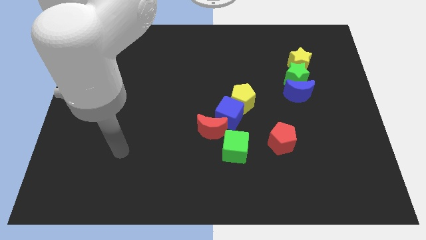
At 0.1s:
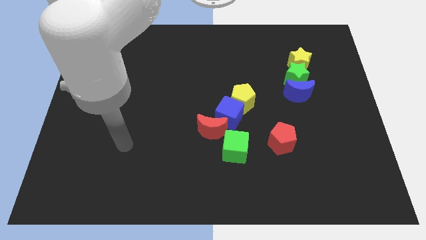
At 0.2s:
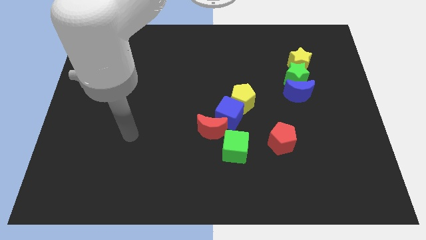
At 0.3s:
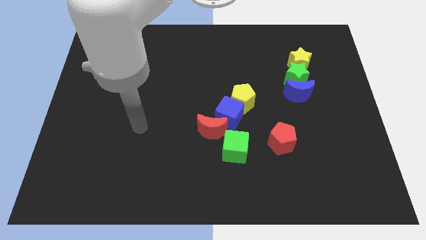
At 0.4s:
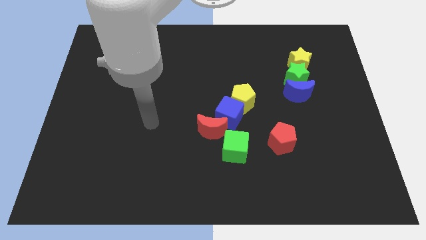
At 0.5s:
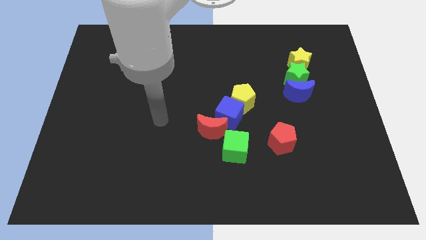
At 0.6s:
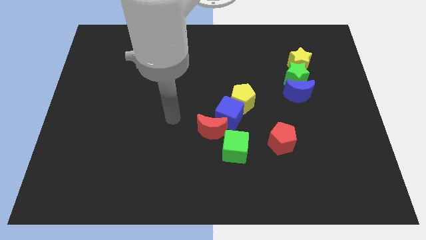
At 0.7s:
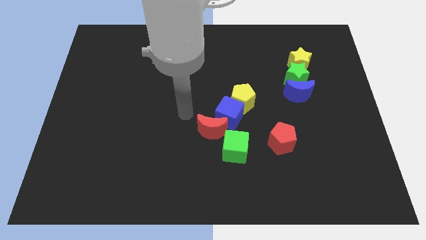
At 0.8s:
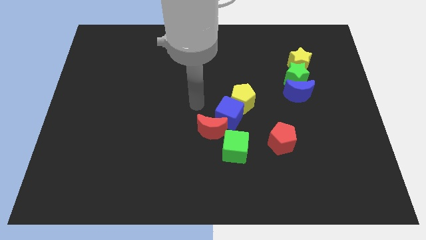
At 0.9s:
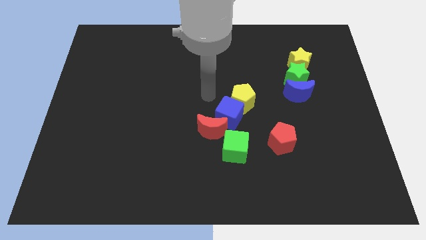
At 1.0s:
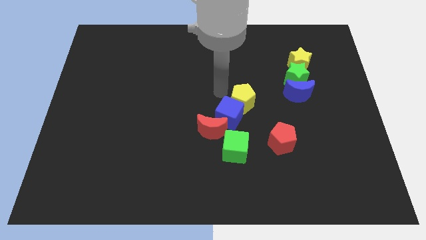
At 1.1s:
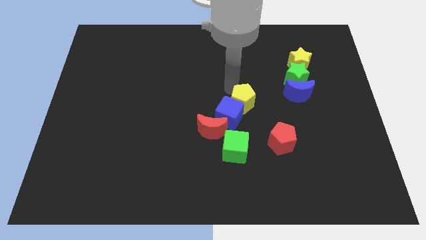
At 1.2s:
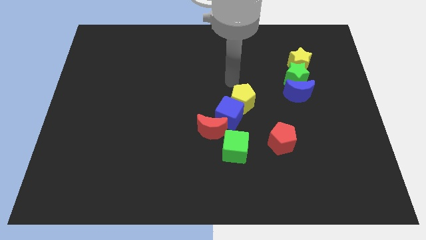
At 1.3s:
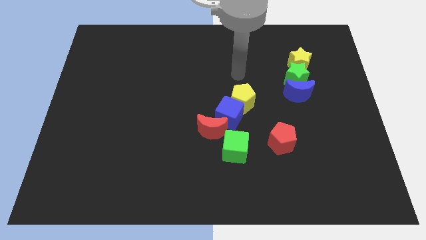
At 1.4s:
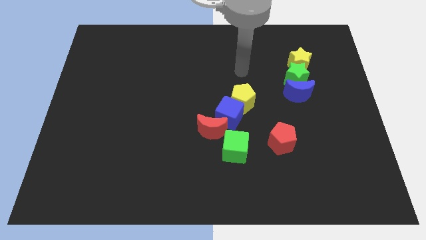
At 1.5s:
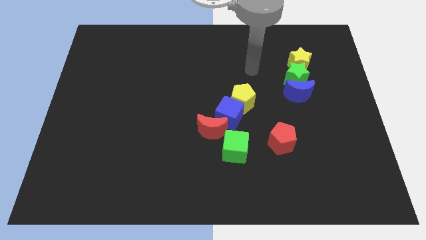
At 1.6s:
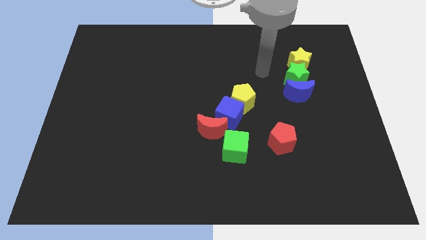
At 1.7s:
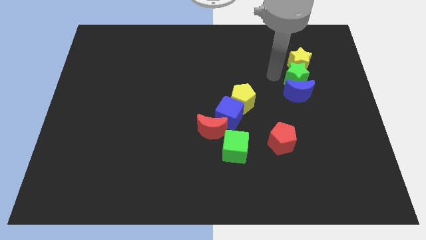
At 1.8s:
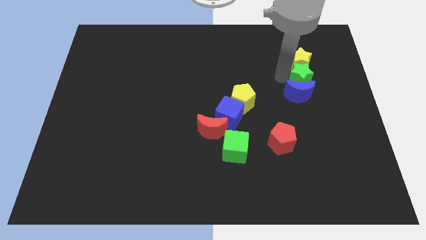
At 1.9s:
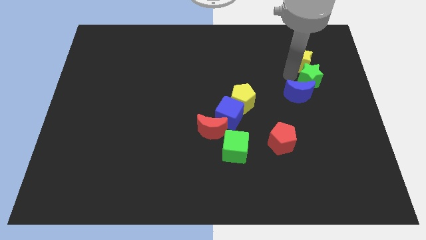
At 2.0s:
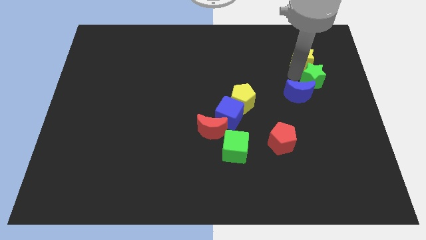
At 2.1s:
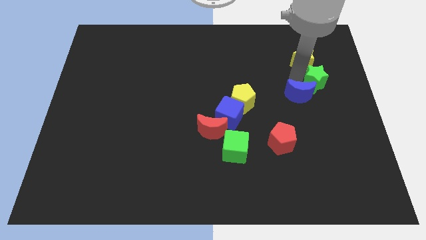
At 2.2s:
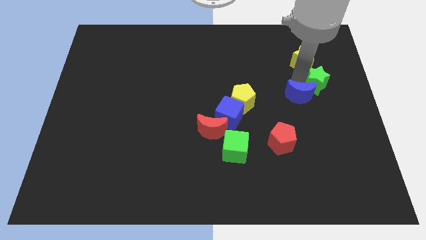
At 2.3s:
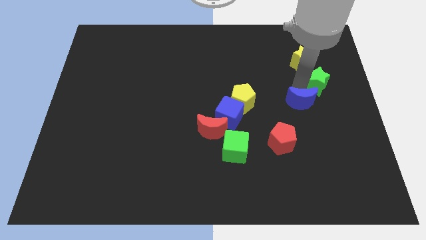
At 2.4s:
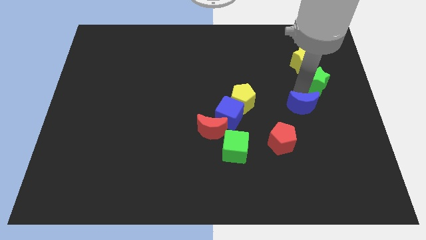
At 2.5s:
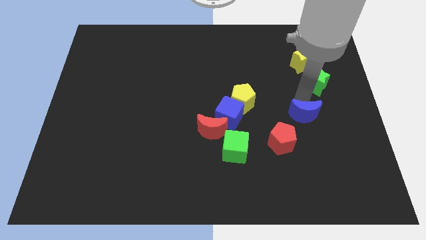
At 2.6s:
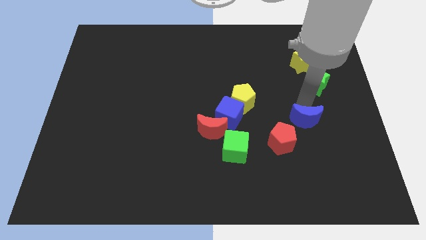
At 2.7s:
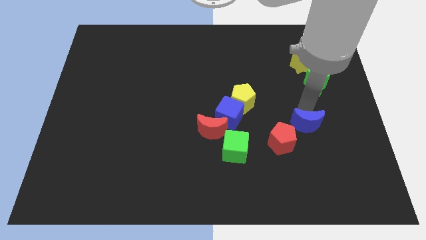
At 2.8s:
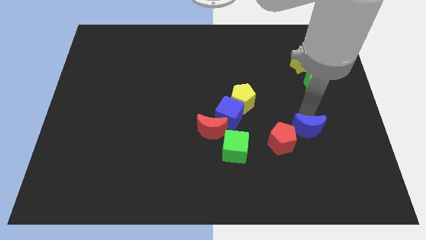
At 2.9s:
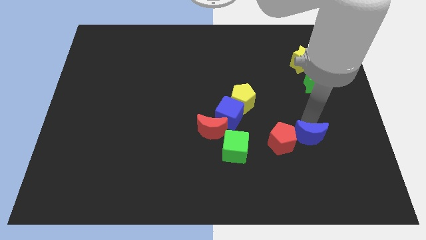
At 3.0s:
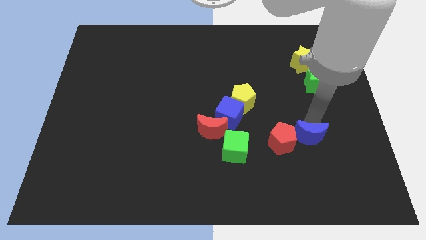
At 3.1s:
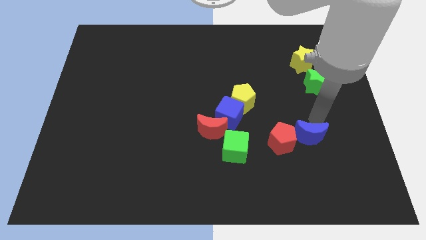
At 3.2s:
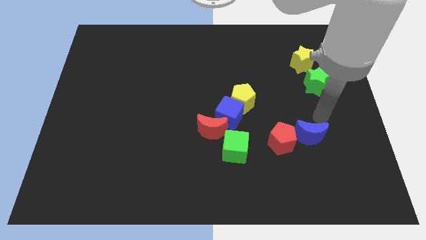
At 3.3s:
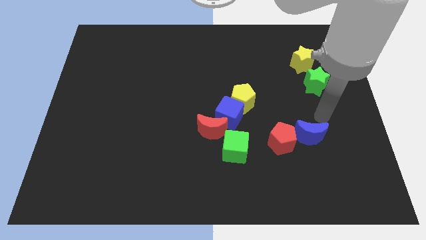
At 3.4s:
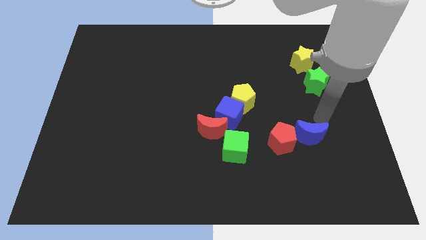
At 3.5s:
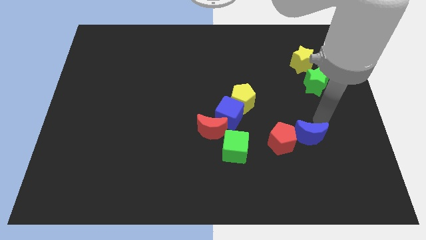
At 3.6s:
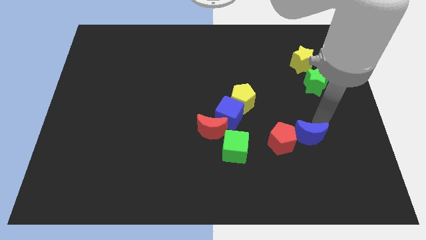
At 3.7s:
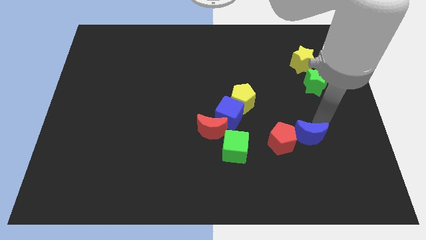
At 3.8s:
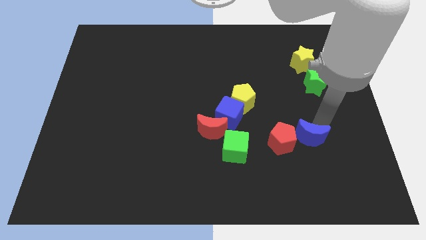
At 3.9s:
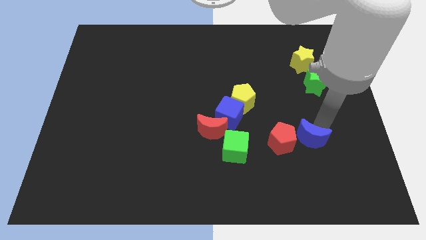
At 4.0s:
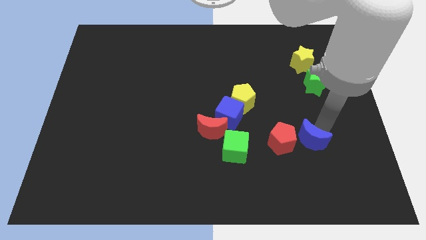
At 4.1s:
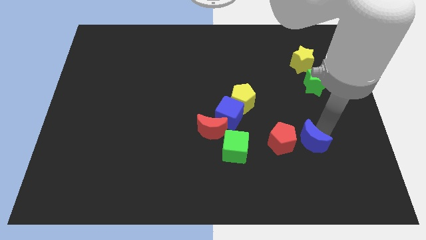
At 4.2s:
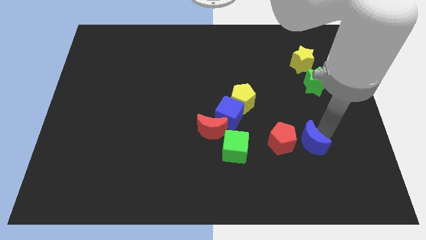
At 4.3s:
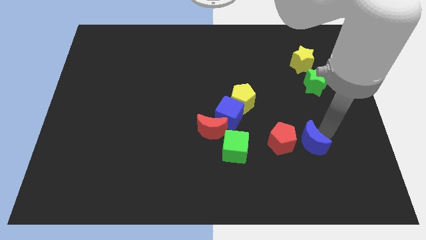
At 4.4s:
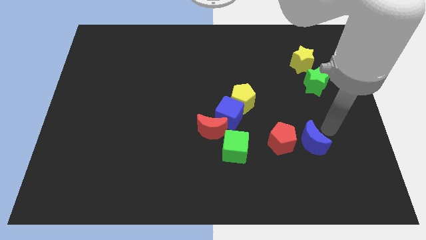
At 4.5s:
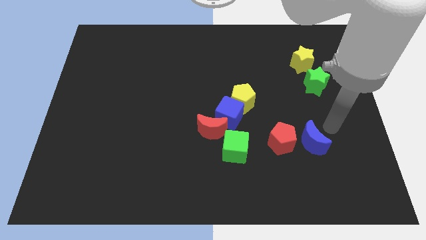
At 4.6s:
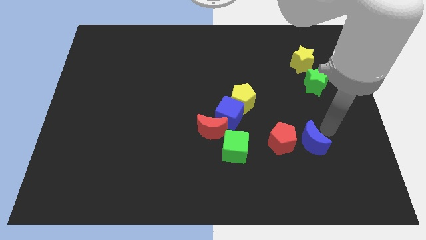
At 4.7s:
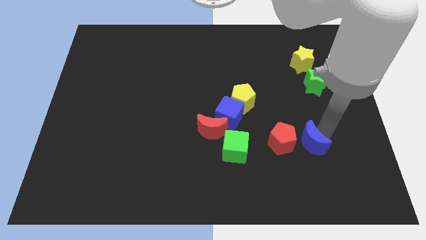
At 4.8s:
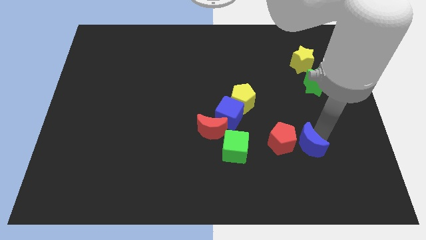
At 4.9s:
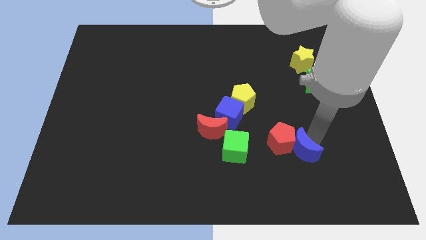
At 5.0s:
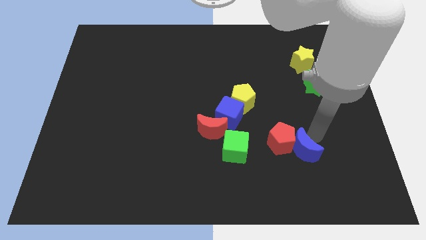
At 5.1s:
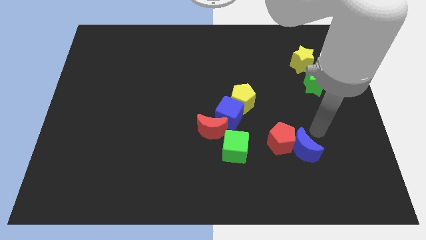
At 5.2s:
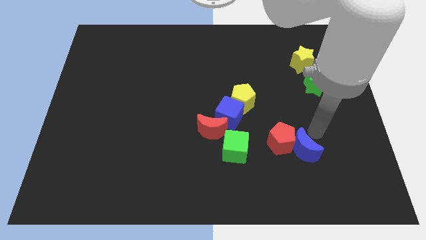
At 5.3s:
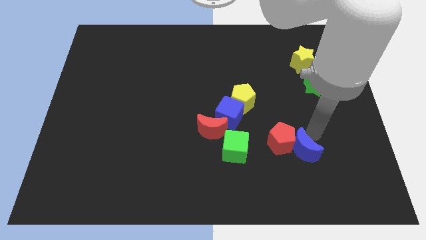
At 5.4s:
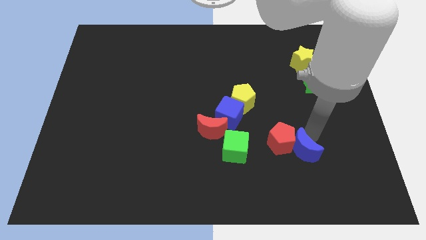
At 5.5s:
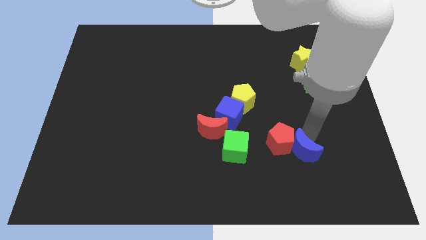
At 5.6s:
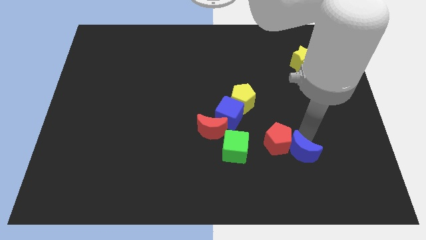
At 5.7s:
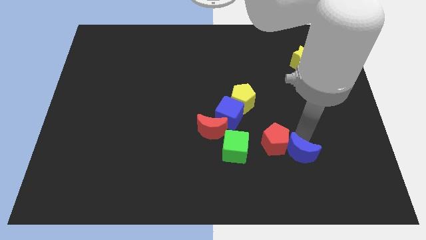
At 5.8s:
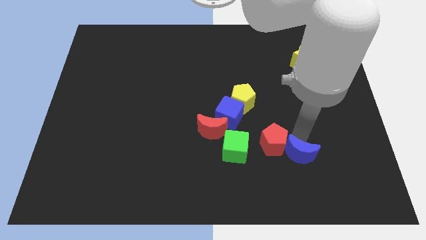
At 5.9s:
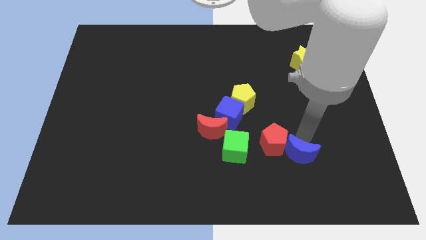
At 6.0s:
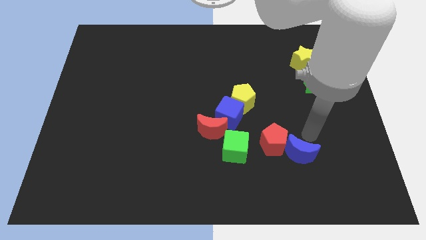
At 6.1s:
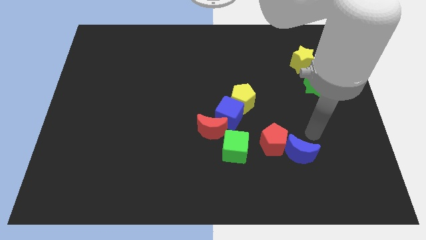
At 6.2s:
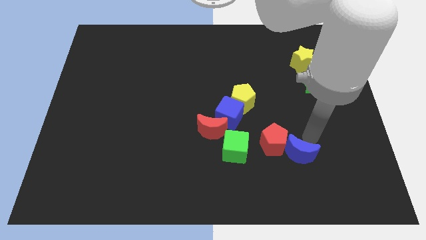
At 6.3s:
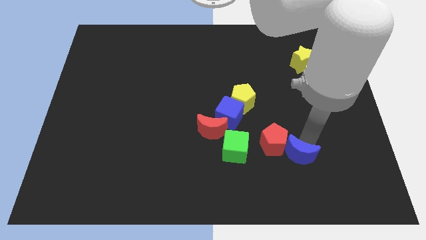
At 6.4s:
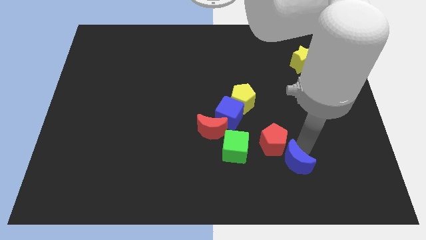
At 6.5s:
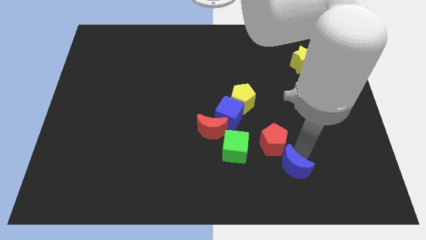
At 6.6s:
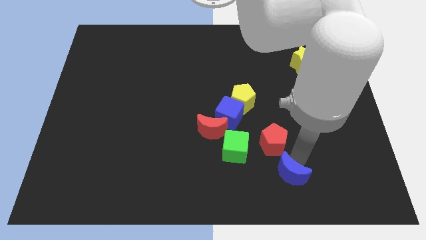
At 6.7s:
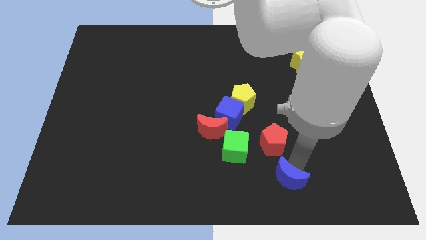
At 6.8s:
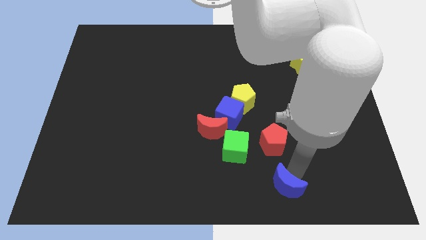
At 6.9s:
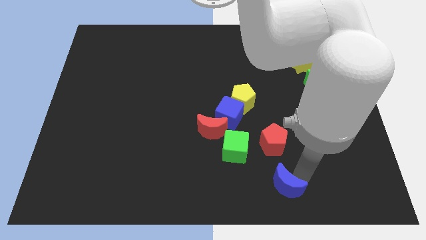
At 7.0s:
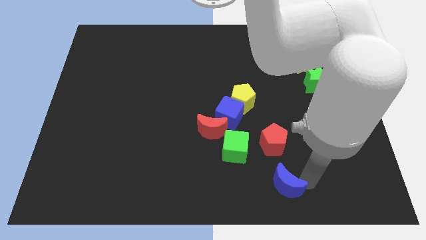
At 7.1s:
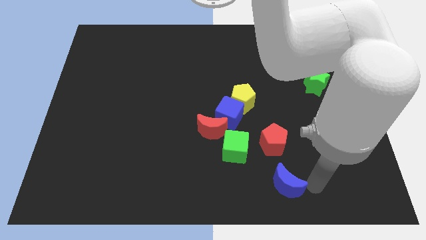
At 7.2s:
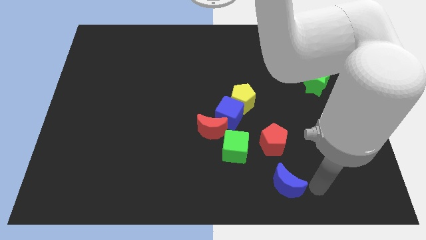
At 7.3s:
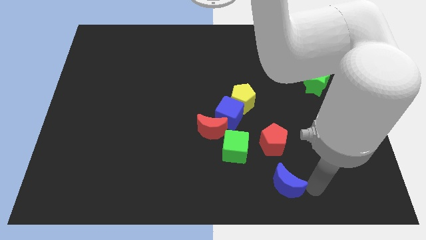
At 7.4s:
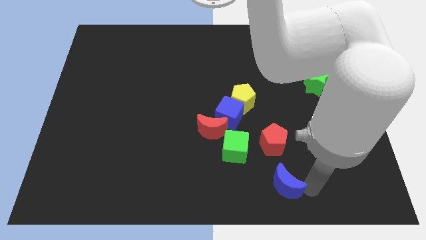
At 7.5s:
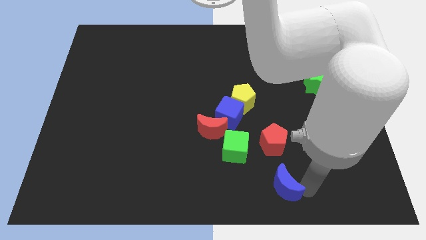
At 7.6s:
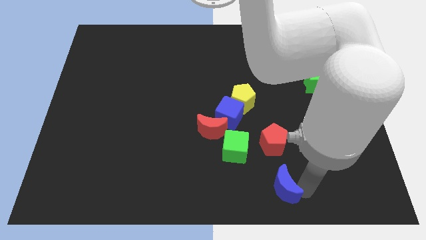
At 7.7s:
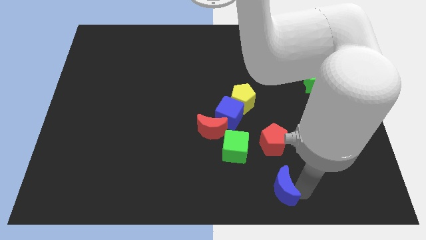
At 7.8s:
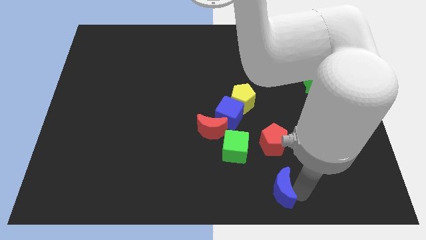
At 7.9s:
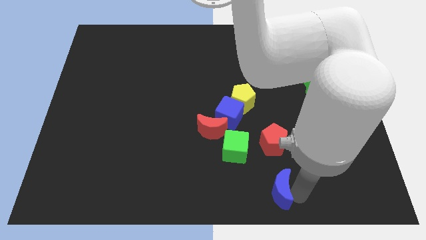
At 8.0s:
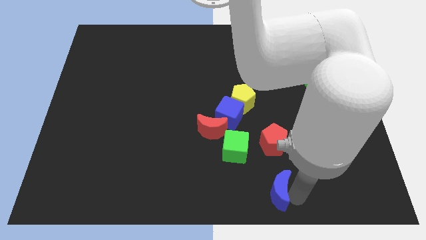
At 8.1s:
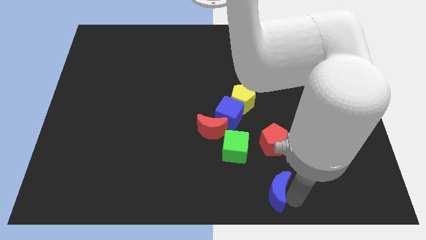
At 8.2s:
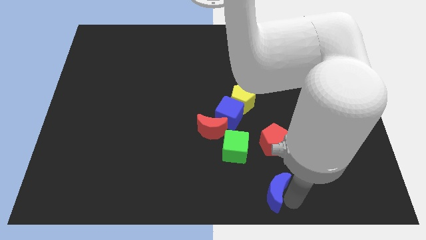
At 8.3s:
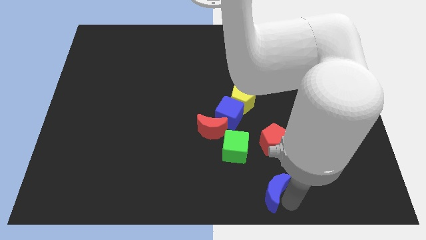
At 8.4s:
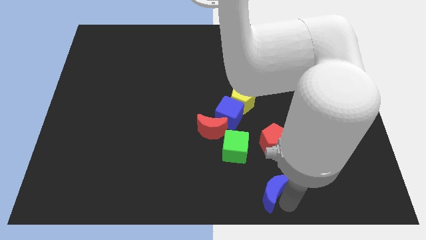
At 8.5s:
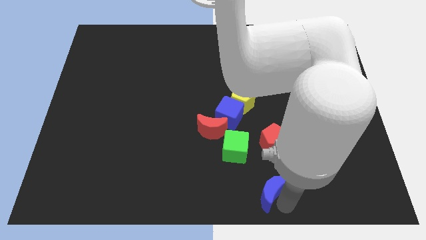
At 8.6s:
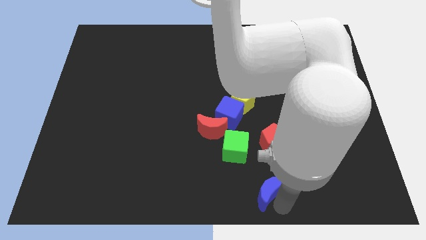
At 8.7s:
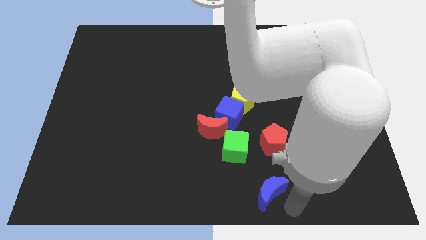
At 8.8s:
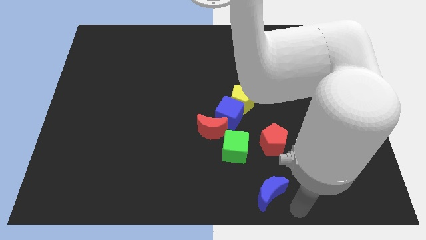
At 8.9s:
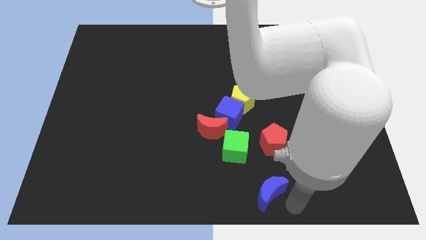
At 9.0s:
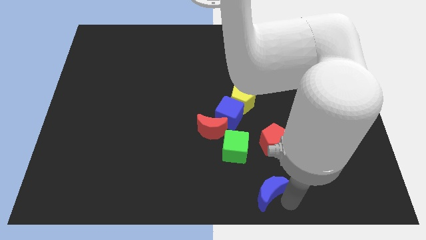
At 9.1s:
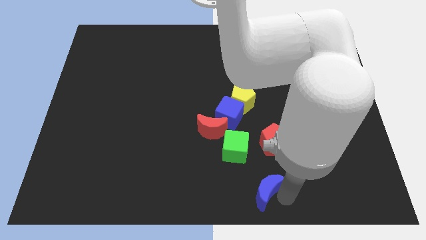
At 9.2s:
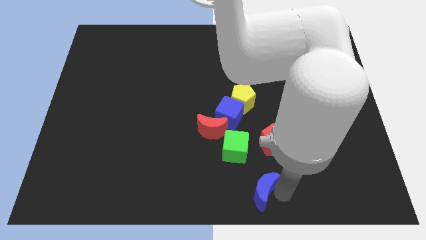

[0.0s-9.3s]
move the blue moon downwards and then to the left
